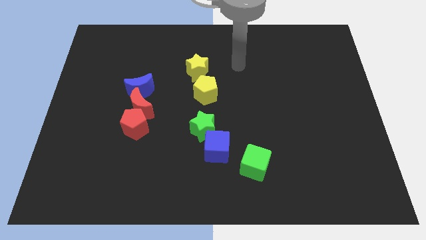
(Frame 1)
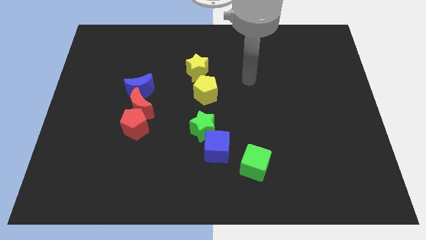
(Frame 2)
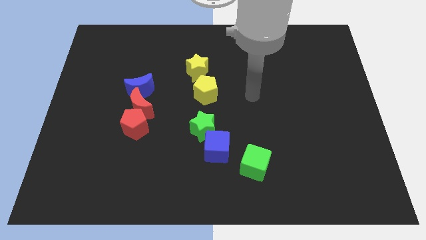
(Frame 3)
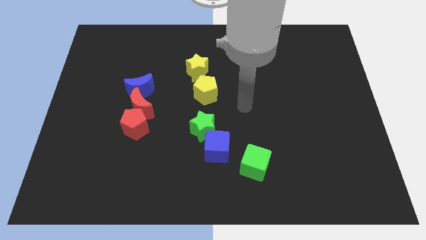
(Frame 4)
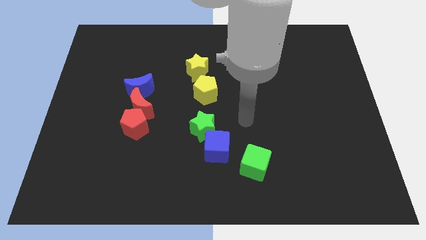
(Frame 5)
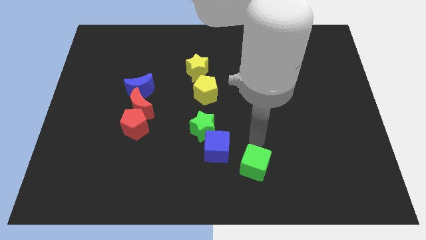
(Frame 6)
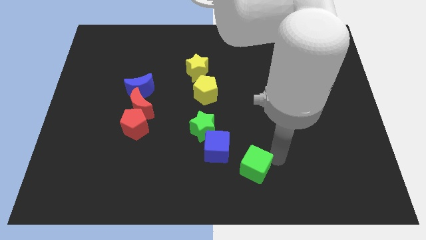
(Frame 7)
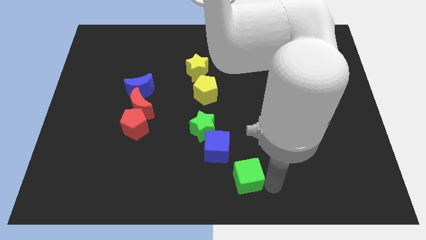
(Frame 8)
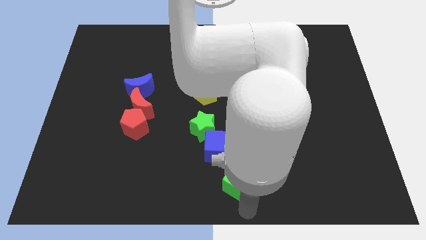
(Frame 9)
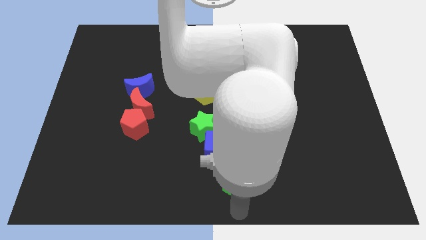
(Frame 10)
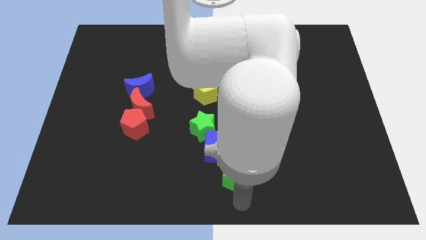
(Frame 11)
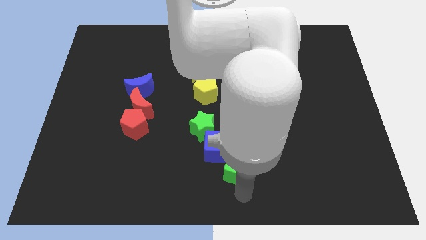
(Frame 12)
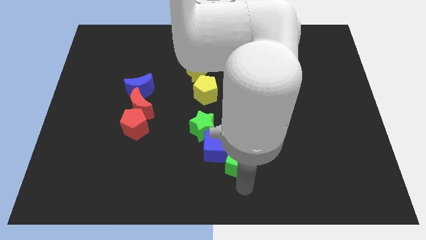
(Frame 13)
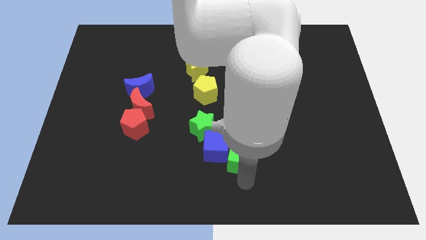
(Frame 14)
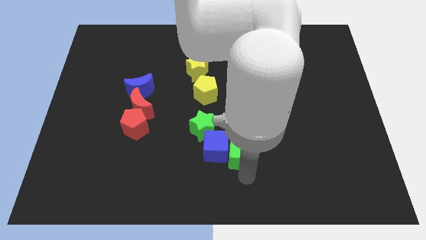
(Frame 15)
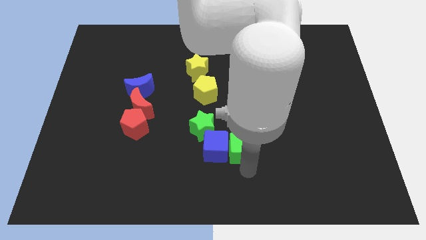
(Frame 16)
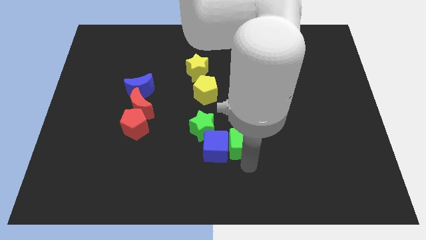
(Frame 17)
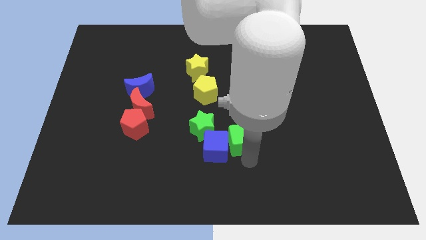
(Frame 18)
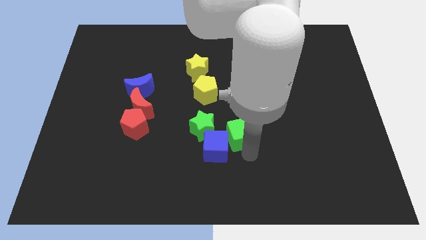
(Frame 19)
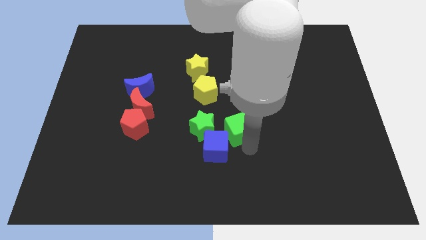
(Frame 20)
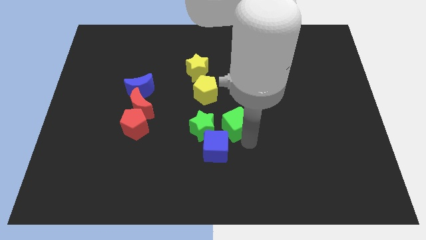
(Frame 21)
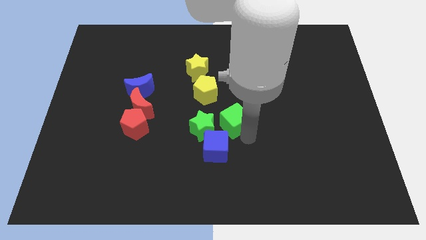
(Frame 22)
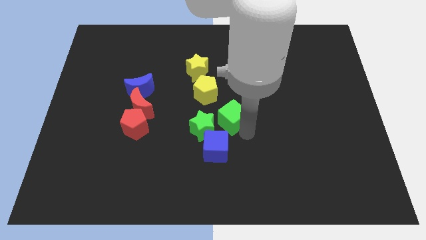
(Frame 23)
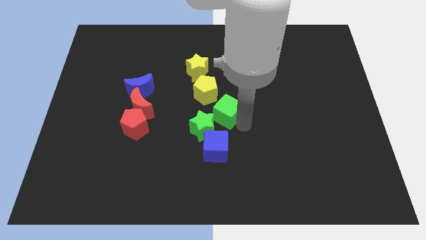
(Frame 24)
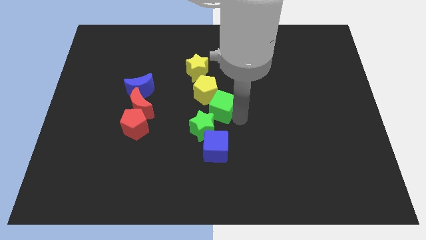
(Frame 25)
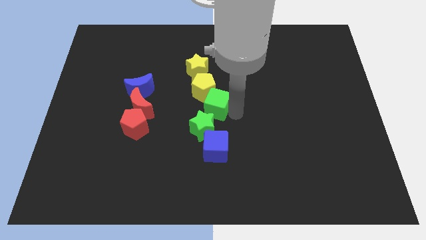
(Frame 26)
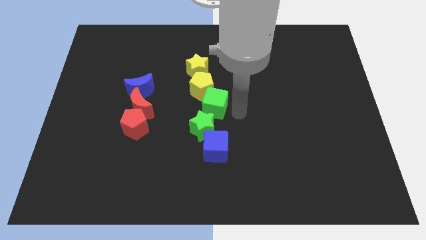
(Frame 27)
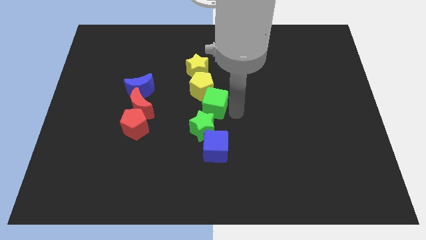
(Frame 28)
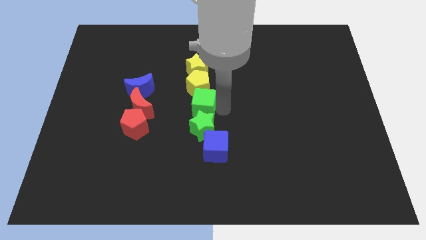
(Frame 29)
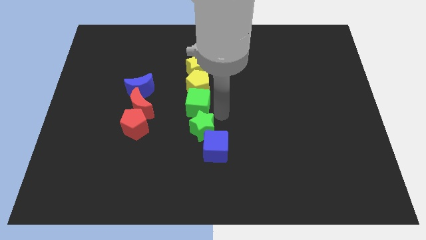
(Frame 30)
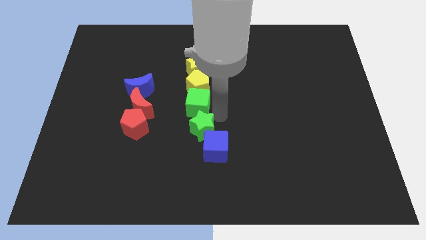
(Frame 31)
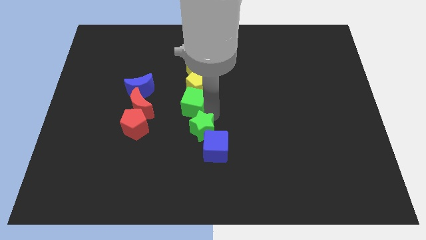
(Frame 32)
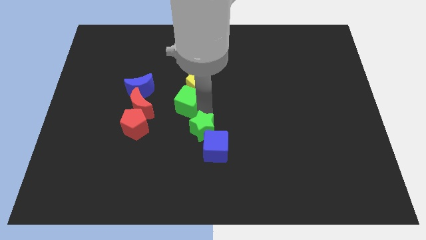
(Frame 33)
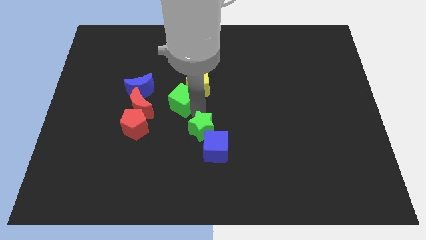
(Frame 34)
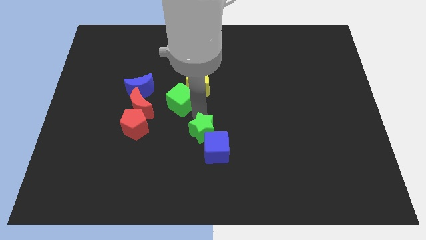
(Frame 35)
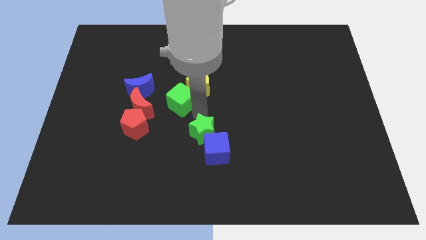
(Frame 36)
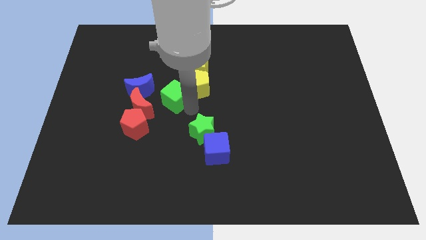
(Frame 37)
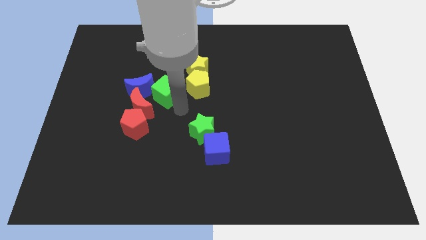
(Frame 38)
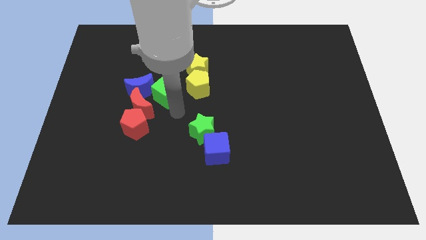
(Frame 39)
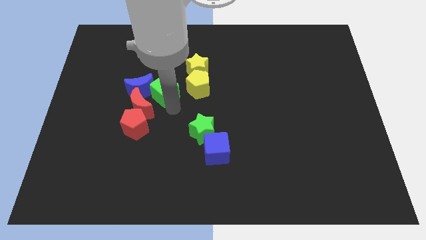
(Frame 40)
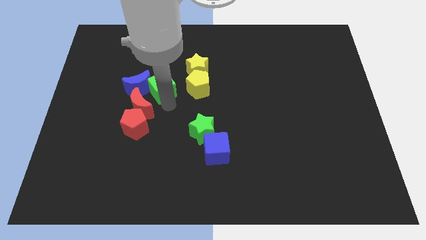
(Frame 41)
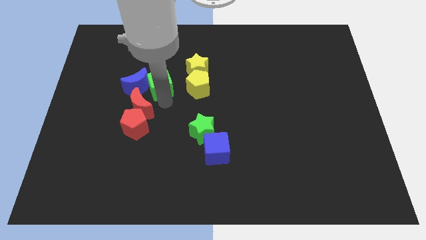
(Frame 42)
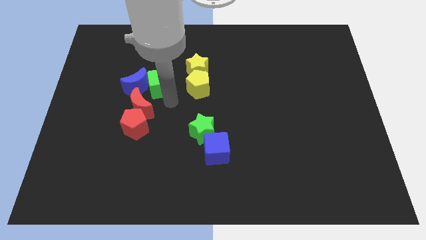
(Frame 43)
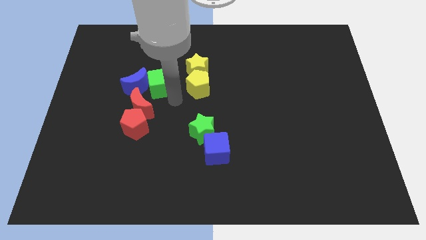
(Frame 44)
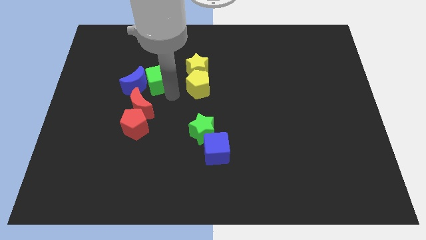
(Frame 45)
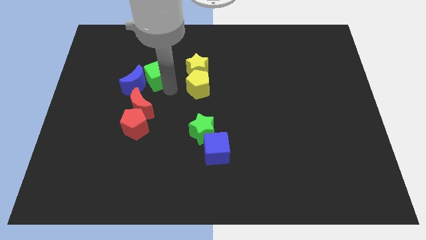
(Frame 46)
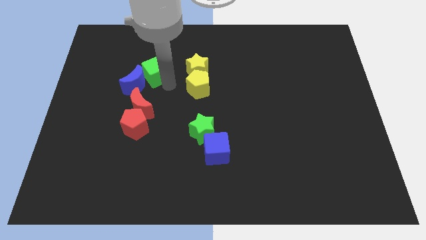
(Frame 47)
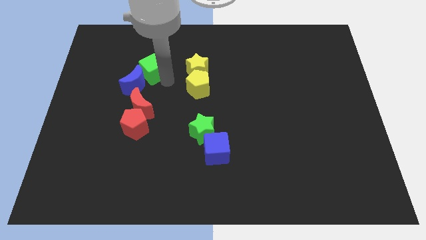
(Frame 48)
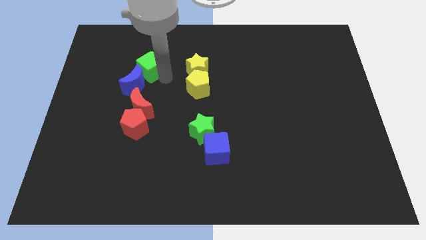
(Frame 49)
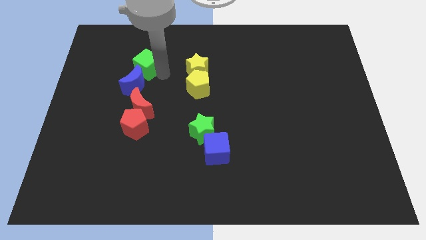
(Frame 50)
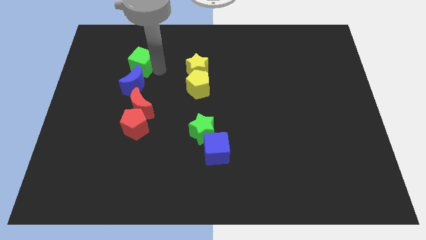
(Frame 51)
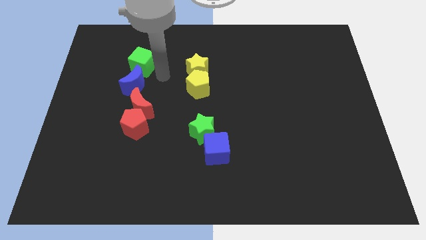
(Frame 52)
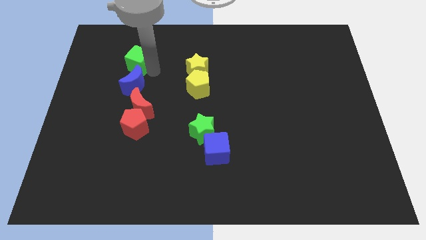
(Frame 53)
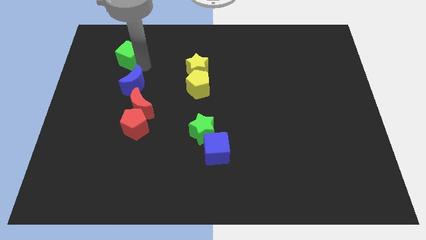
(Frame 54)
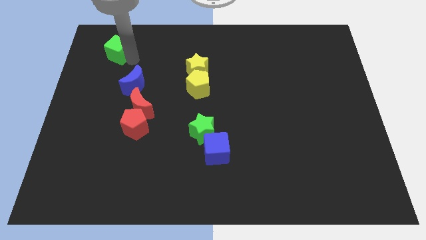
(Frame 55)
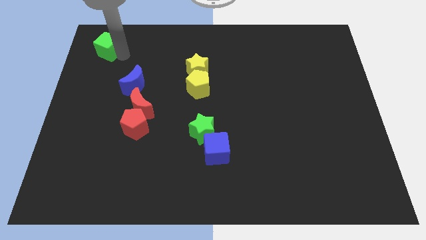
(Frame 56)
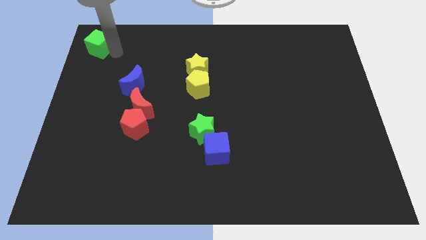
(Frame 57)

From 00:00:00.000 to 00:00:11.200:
push the green cube to the upper left corner

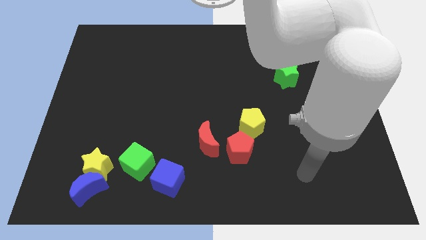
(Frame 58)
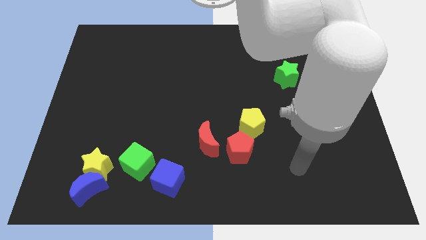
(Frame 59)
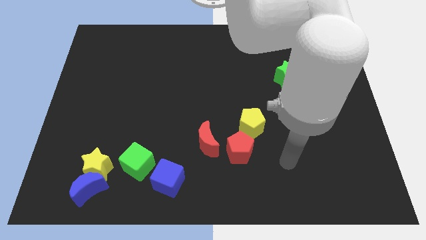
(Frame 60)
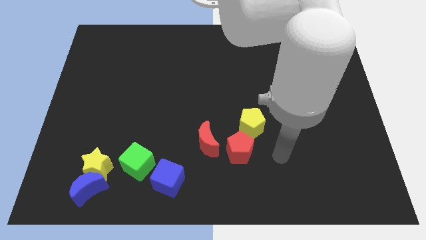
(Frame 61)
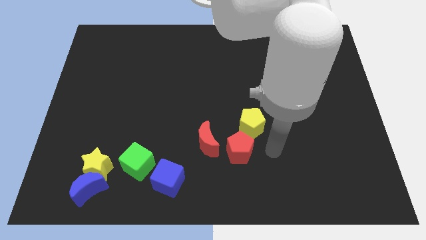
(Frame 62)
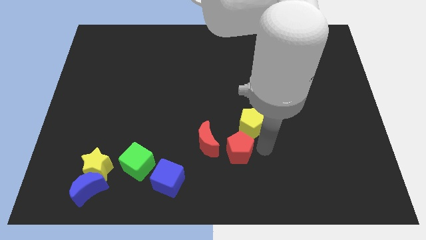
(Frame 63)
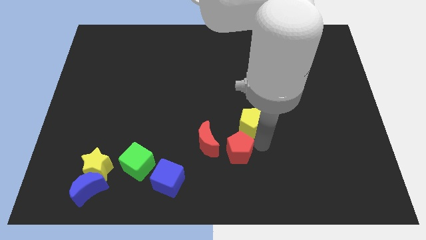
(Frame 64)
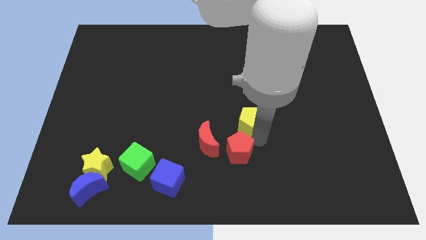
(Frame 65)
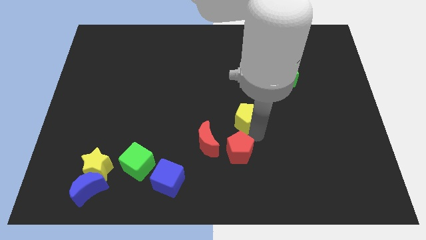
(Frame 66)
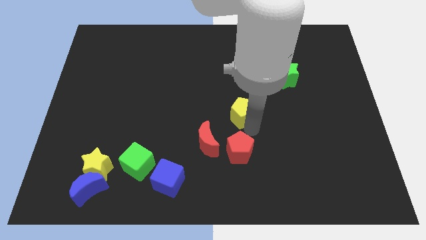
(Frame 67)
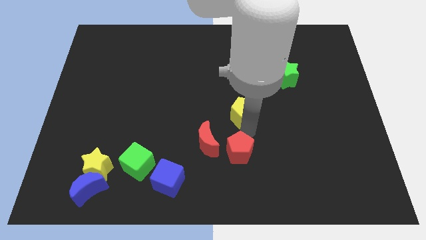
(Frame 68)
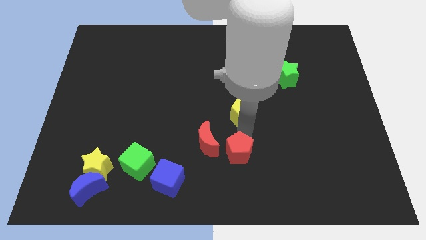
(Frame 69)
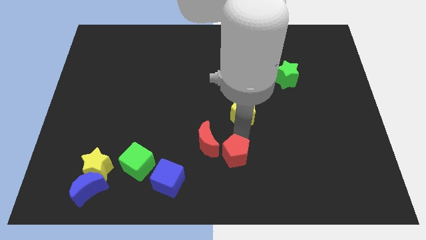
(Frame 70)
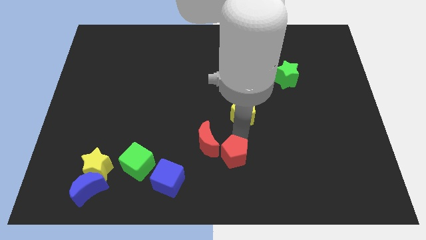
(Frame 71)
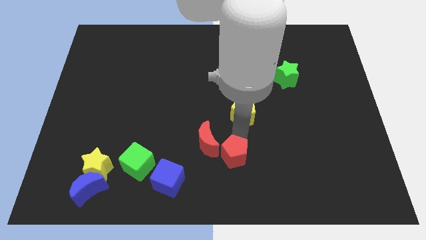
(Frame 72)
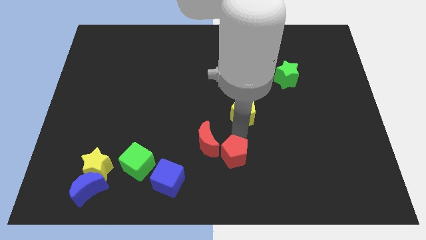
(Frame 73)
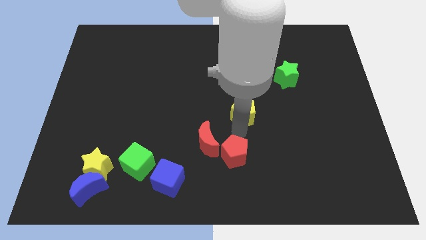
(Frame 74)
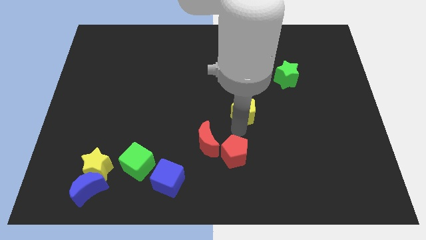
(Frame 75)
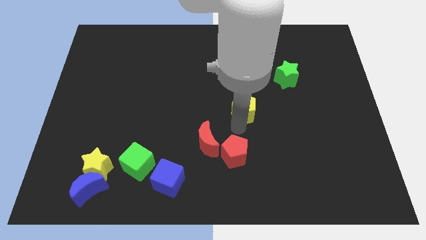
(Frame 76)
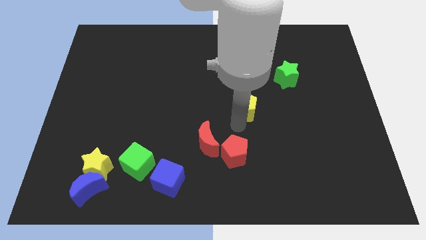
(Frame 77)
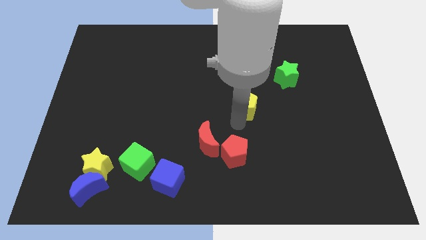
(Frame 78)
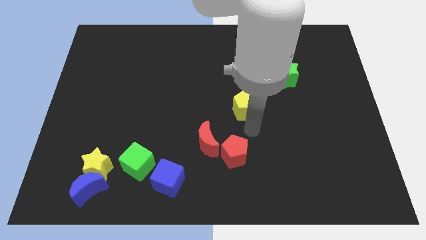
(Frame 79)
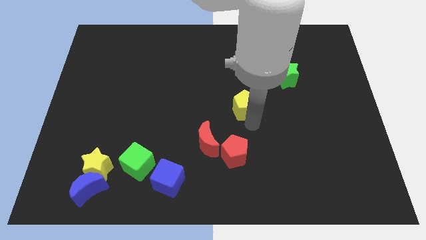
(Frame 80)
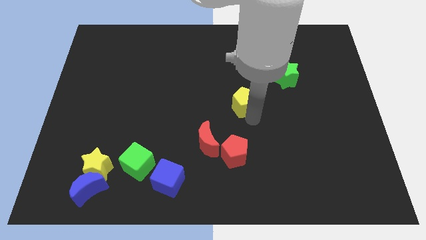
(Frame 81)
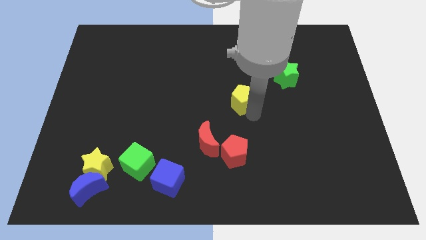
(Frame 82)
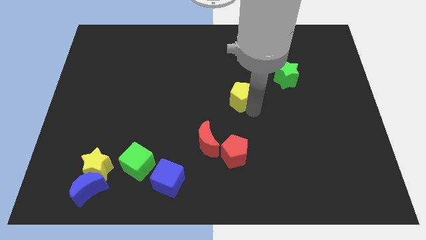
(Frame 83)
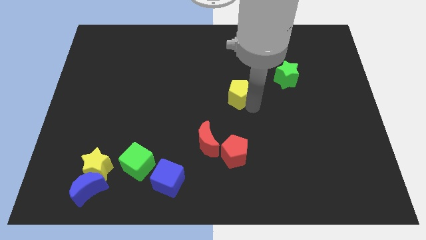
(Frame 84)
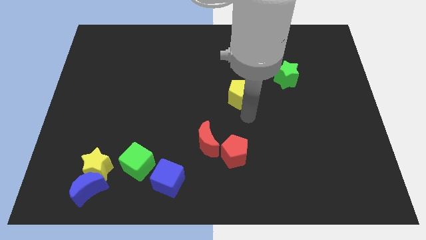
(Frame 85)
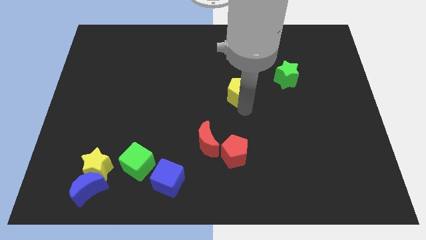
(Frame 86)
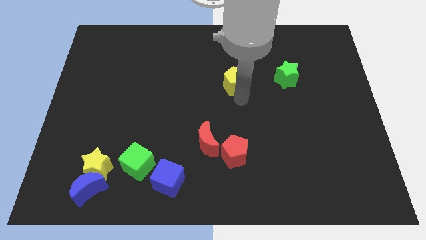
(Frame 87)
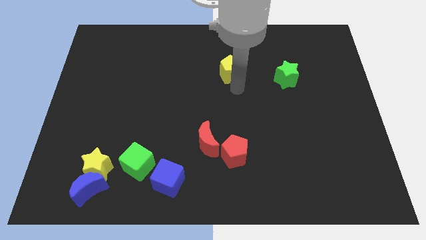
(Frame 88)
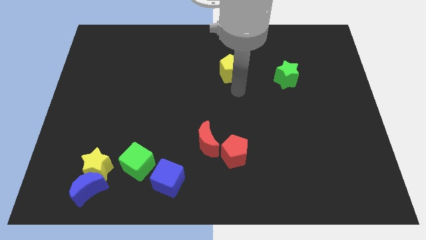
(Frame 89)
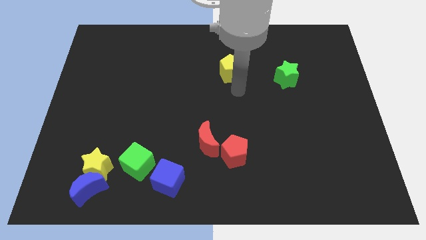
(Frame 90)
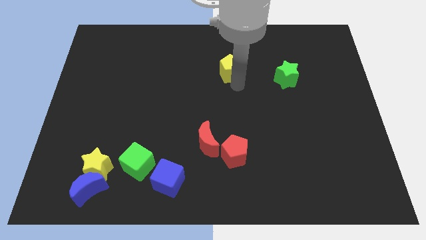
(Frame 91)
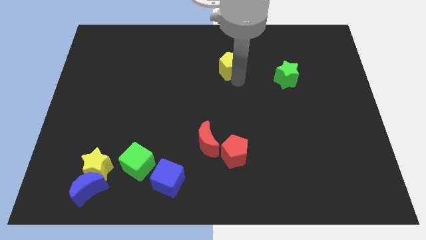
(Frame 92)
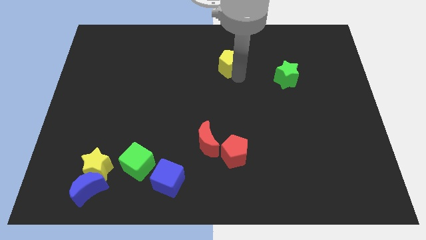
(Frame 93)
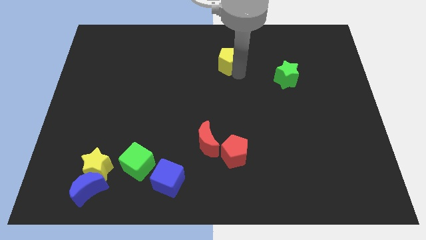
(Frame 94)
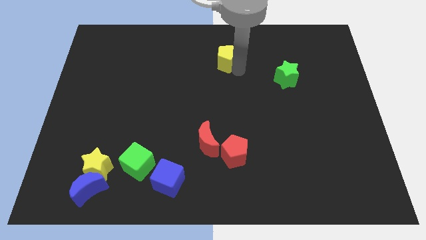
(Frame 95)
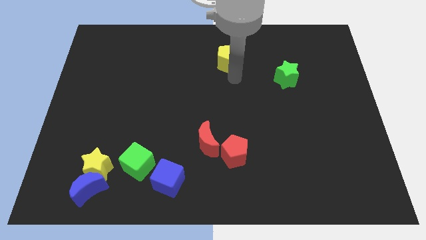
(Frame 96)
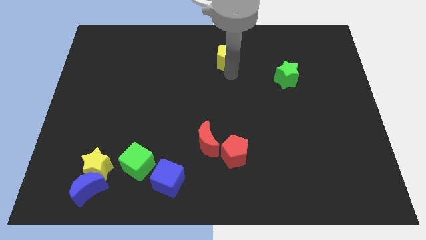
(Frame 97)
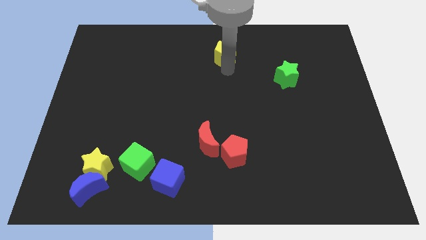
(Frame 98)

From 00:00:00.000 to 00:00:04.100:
put the yellow pentagon to the top side
